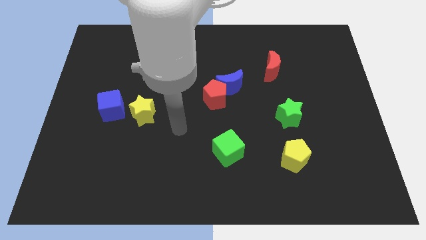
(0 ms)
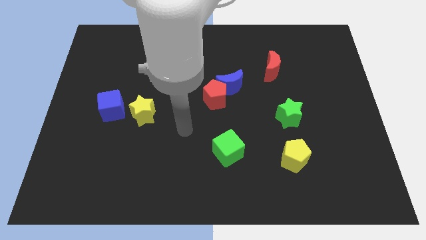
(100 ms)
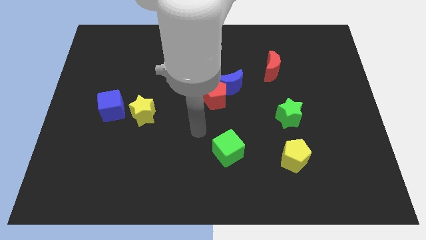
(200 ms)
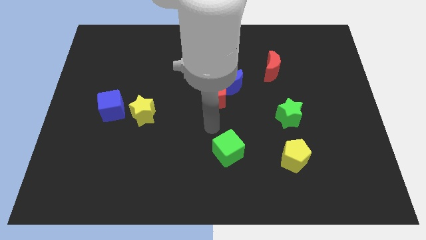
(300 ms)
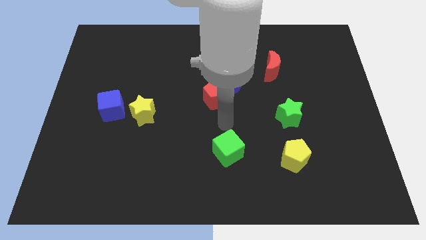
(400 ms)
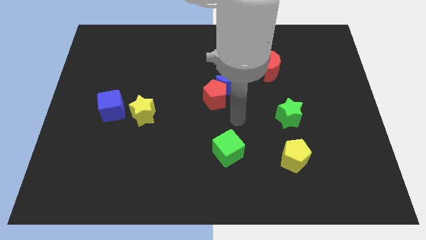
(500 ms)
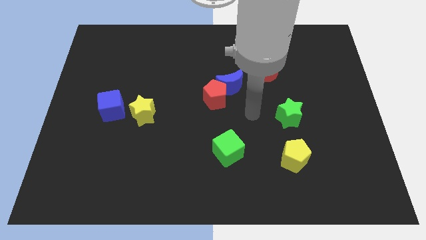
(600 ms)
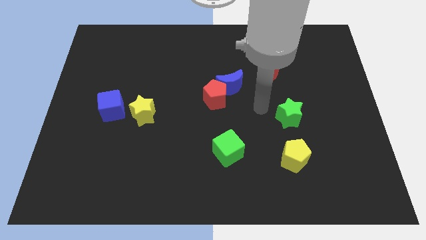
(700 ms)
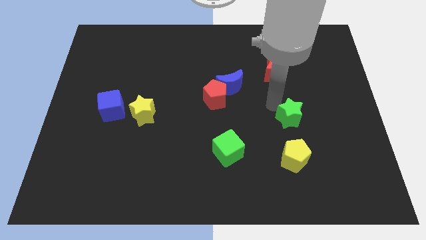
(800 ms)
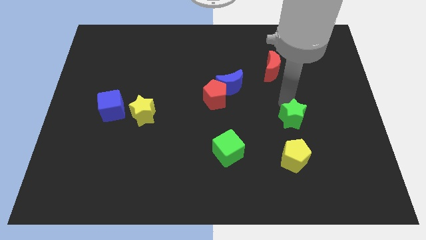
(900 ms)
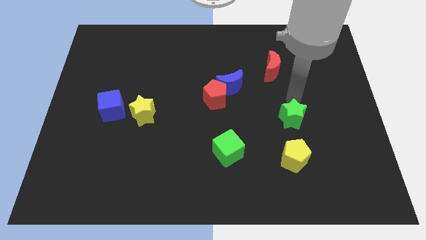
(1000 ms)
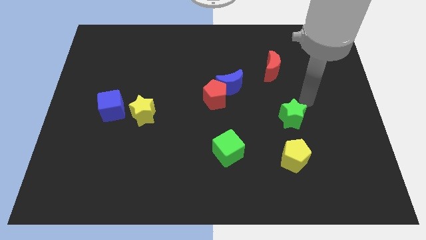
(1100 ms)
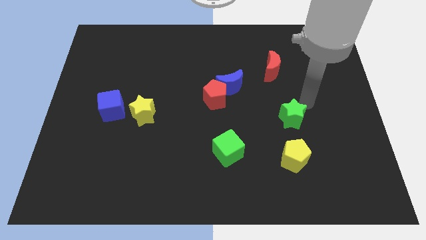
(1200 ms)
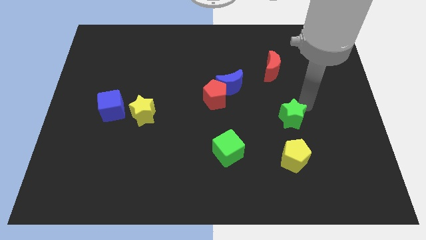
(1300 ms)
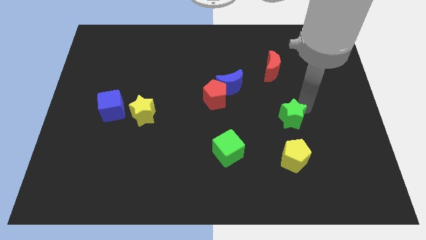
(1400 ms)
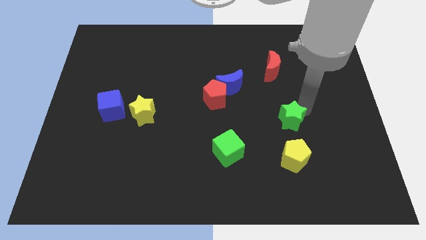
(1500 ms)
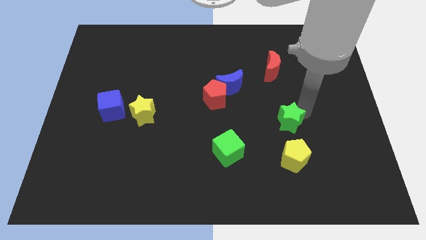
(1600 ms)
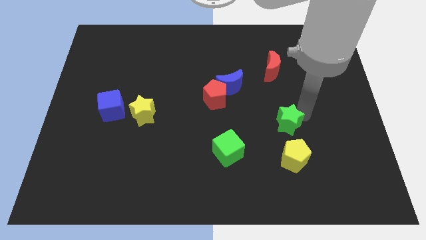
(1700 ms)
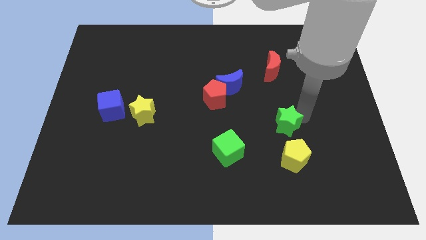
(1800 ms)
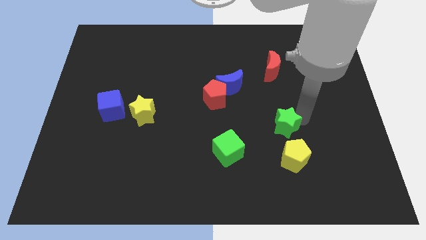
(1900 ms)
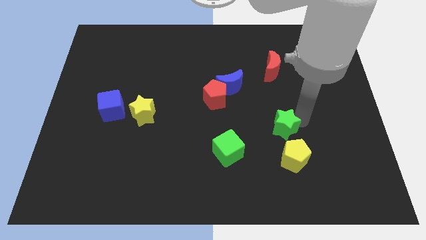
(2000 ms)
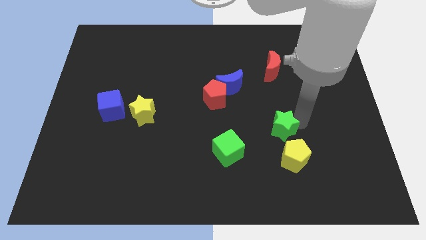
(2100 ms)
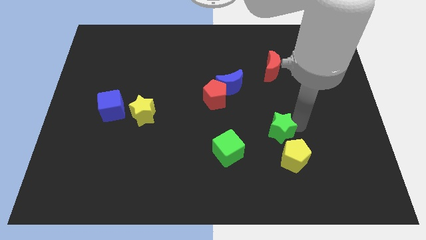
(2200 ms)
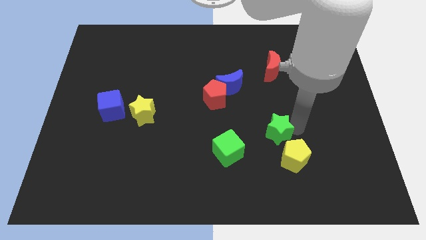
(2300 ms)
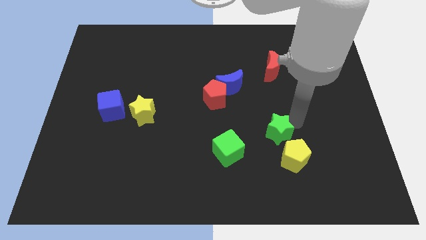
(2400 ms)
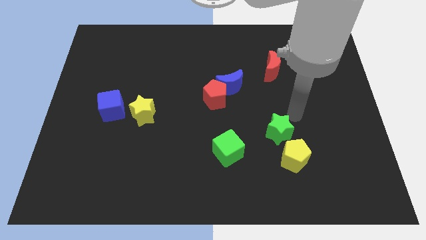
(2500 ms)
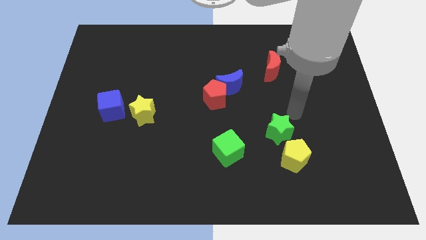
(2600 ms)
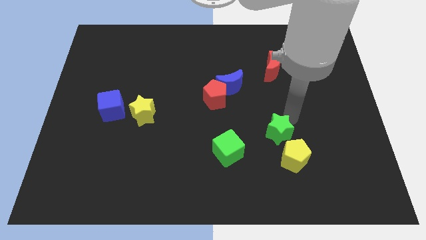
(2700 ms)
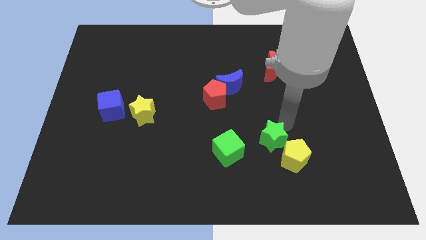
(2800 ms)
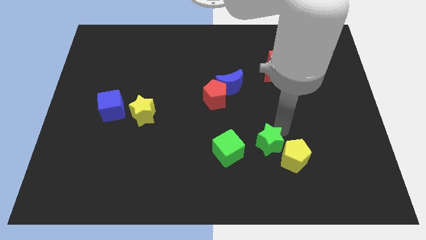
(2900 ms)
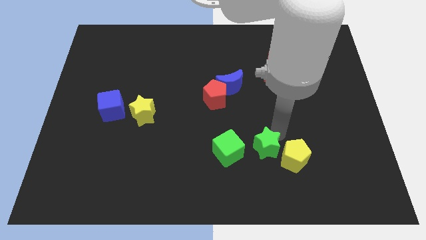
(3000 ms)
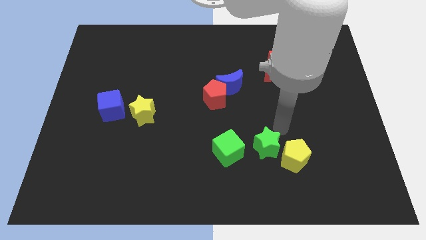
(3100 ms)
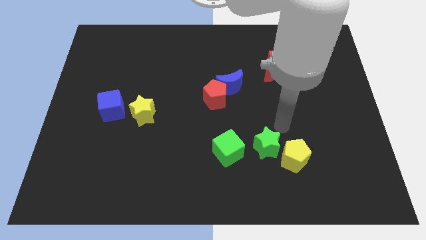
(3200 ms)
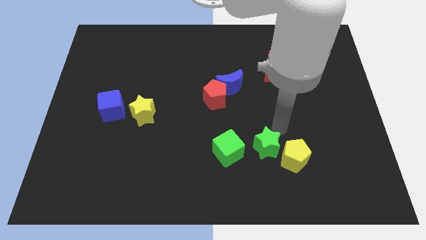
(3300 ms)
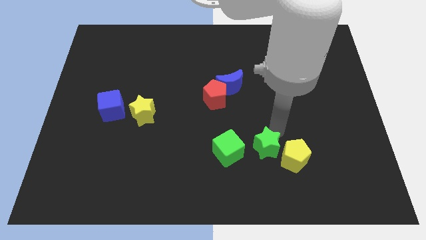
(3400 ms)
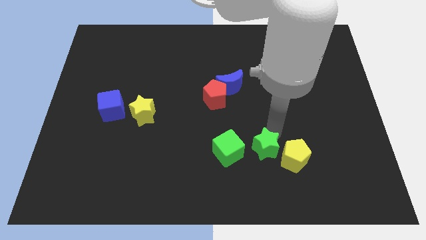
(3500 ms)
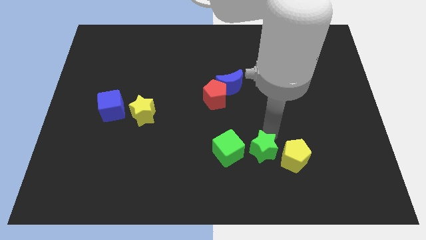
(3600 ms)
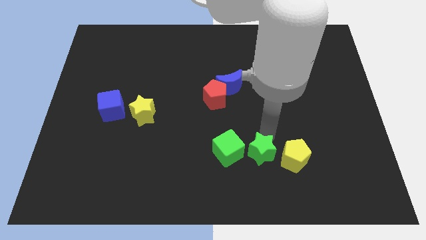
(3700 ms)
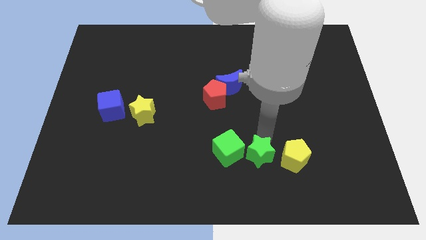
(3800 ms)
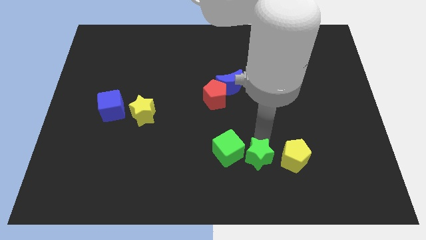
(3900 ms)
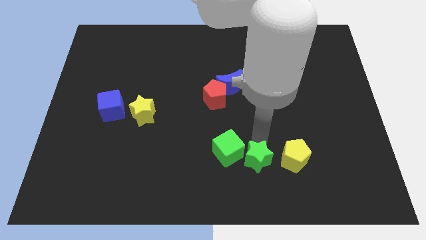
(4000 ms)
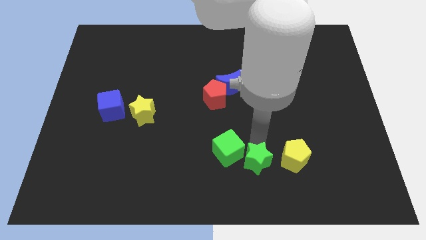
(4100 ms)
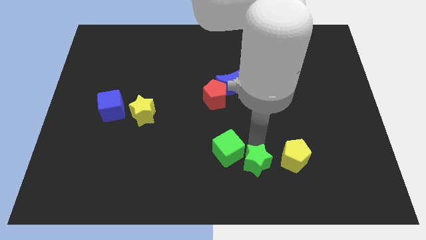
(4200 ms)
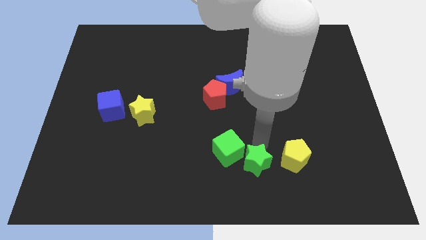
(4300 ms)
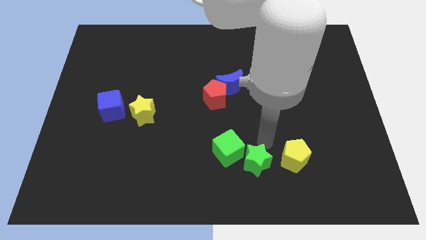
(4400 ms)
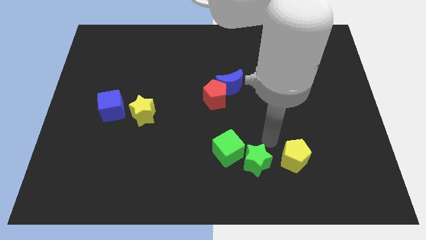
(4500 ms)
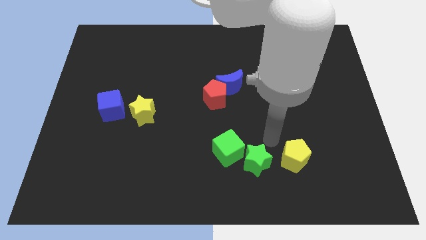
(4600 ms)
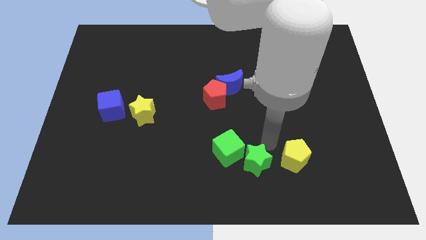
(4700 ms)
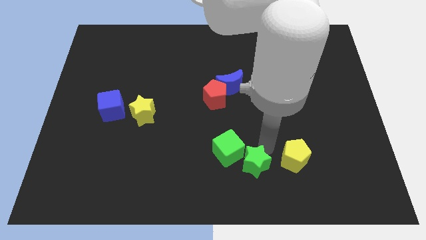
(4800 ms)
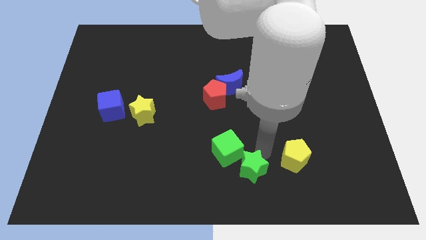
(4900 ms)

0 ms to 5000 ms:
move the green star to the bottom

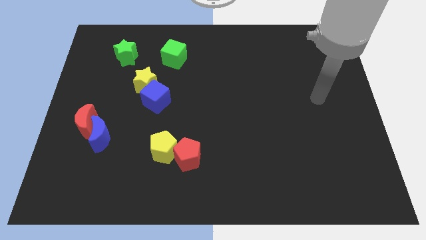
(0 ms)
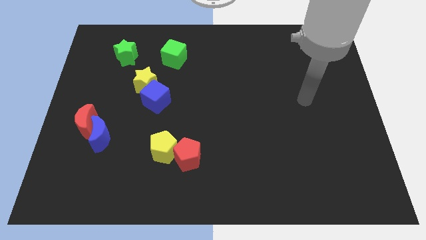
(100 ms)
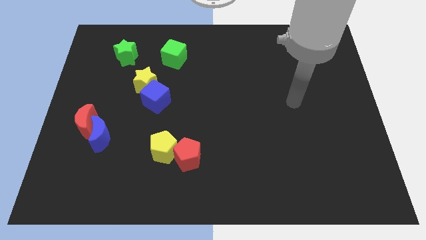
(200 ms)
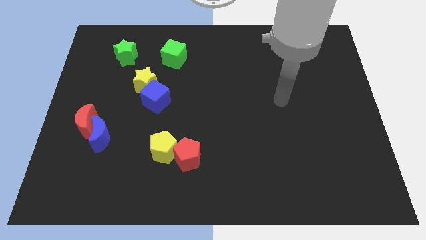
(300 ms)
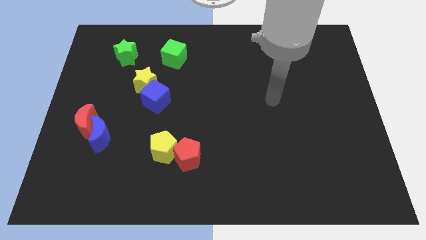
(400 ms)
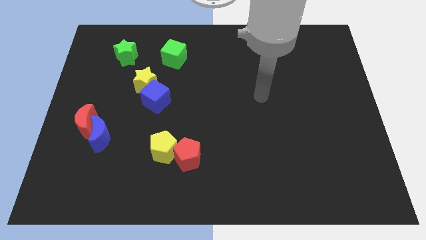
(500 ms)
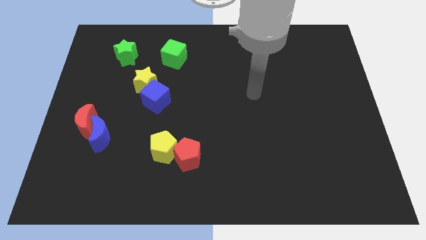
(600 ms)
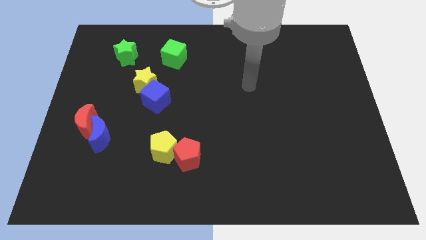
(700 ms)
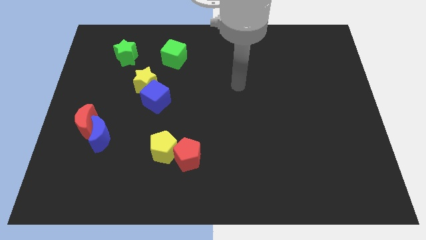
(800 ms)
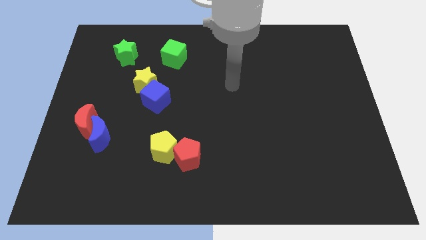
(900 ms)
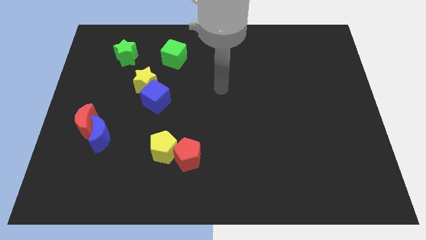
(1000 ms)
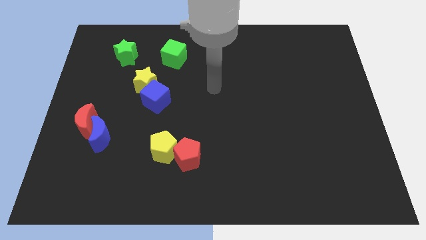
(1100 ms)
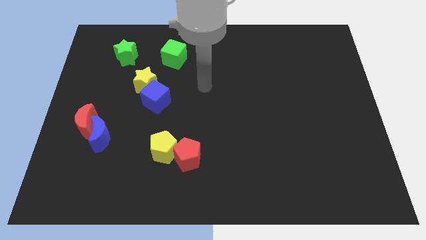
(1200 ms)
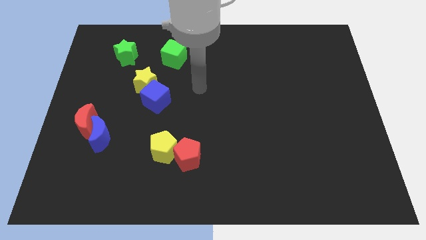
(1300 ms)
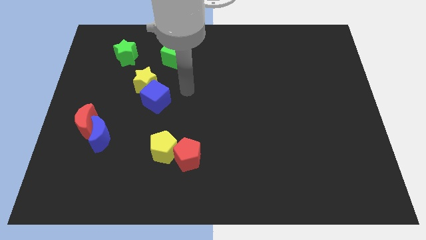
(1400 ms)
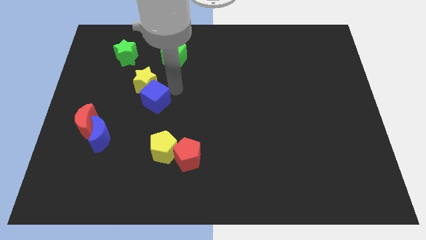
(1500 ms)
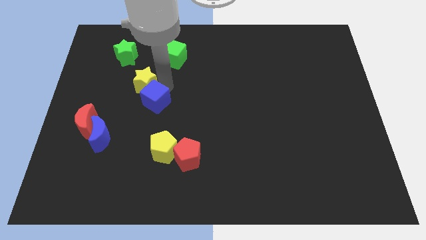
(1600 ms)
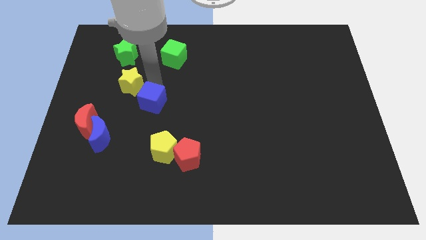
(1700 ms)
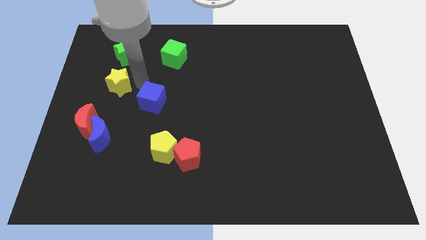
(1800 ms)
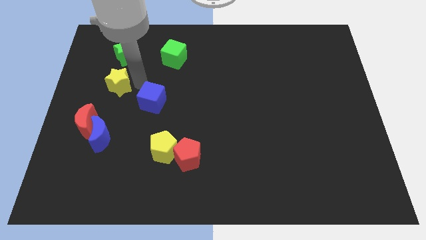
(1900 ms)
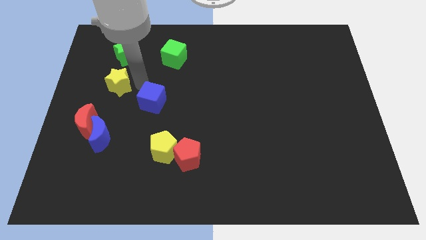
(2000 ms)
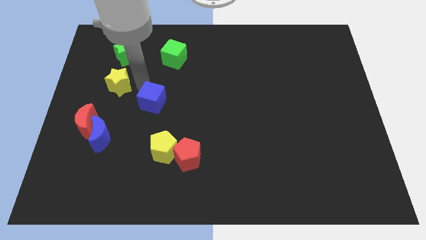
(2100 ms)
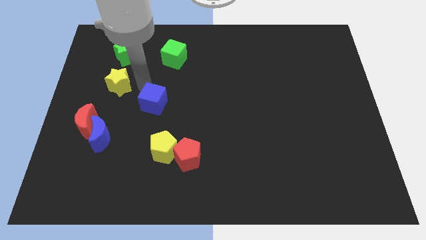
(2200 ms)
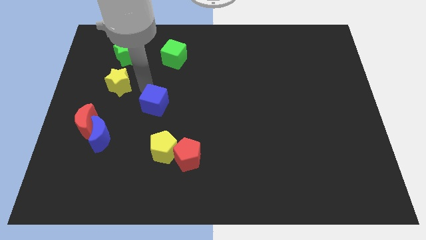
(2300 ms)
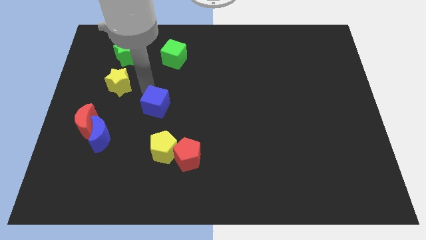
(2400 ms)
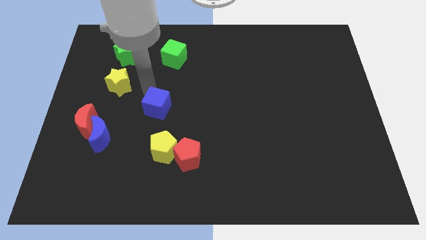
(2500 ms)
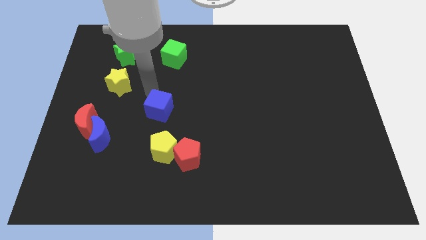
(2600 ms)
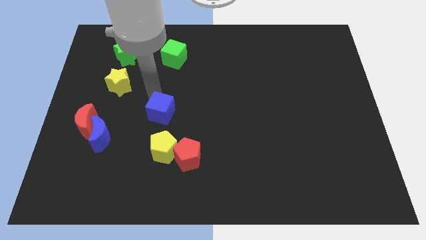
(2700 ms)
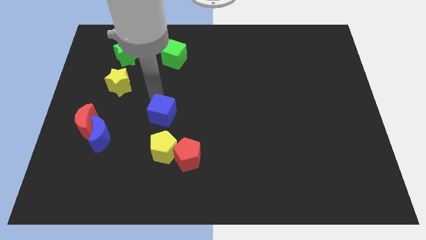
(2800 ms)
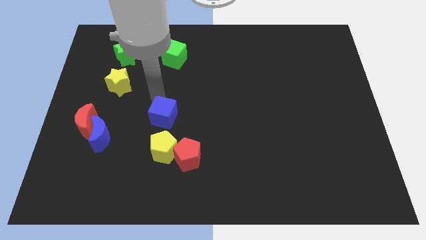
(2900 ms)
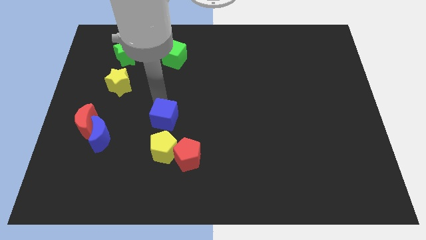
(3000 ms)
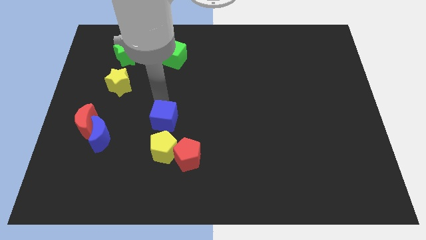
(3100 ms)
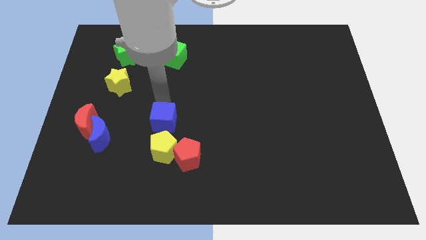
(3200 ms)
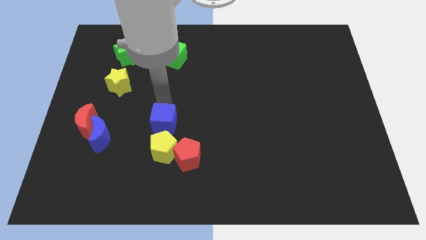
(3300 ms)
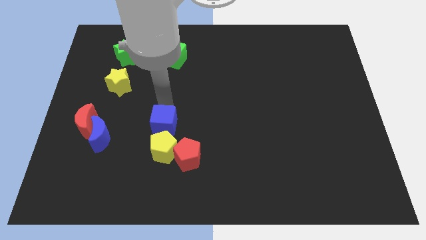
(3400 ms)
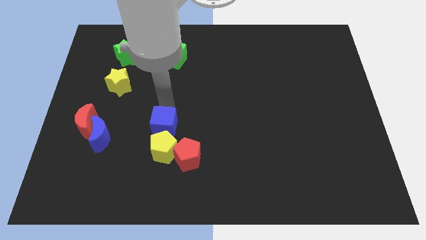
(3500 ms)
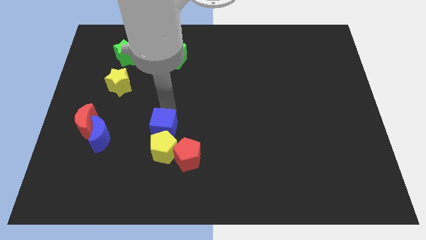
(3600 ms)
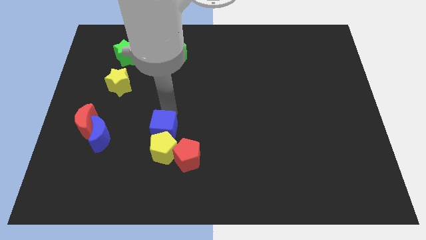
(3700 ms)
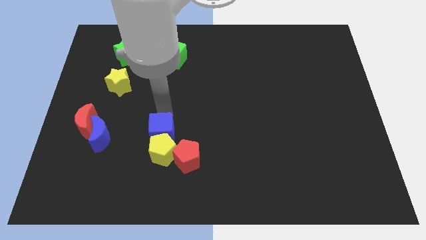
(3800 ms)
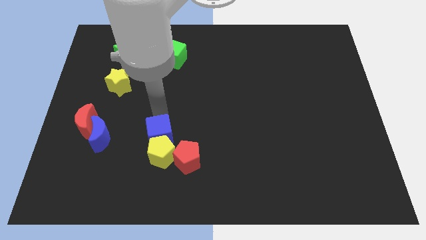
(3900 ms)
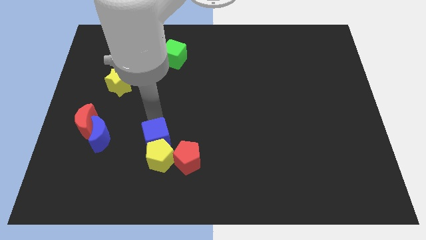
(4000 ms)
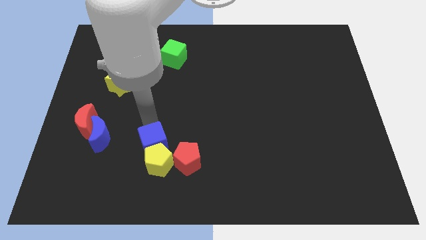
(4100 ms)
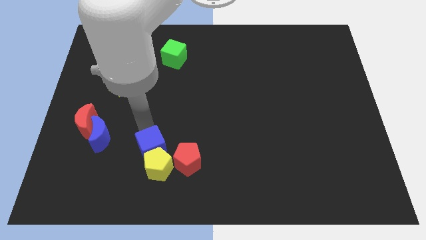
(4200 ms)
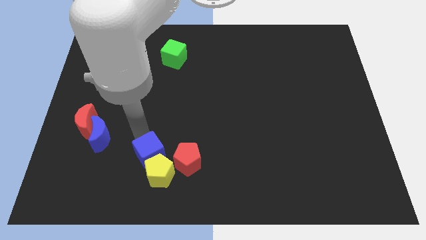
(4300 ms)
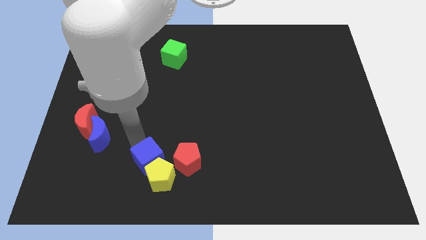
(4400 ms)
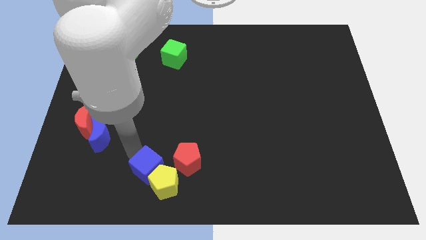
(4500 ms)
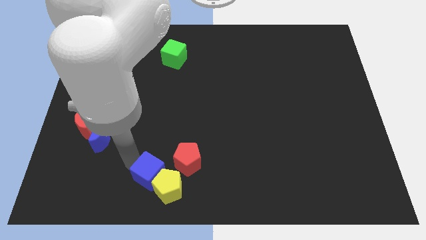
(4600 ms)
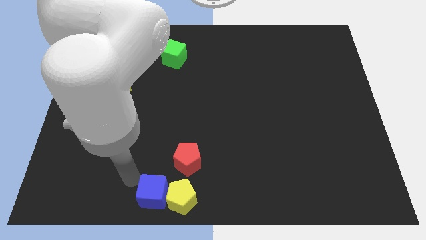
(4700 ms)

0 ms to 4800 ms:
move the blue cube to the bottom
